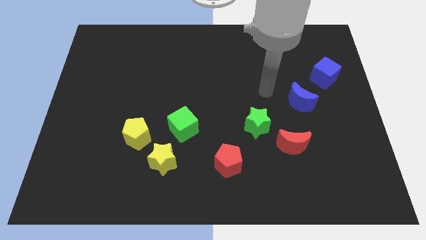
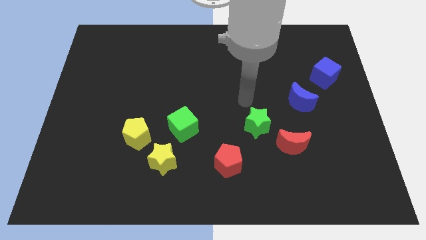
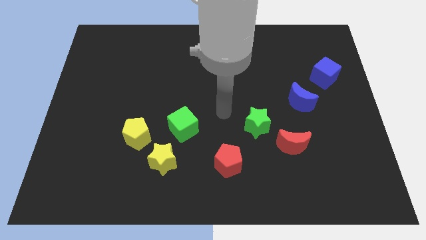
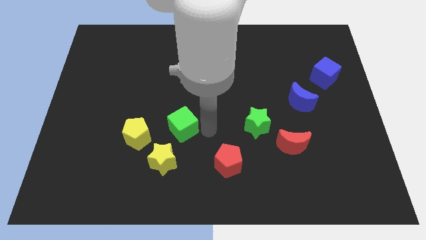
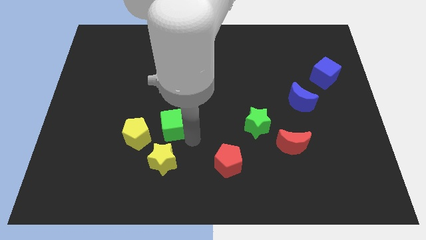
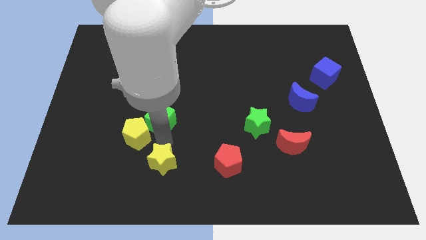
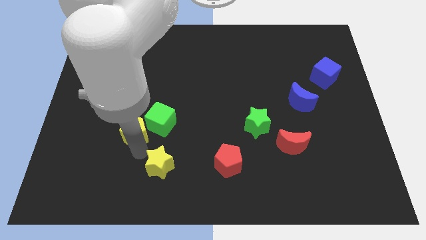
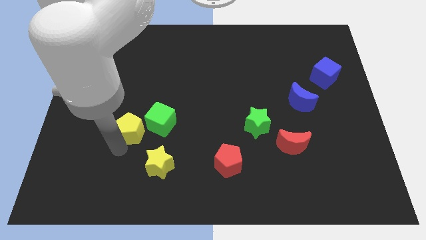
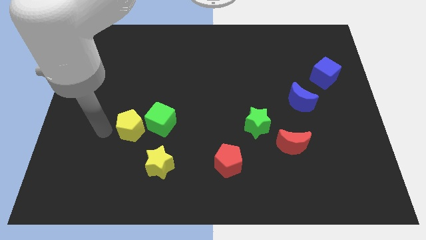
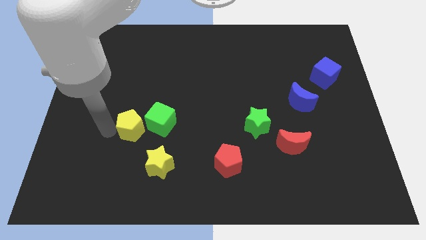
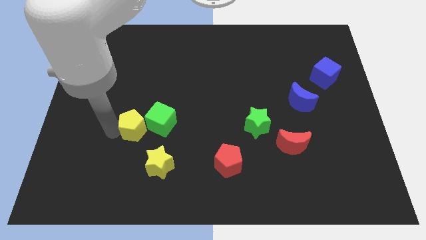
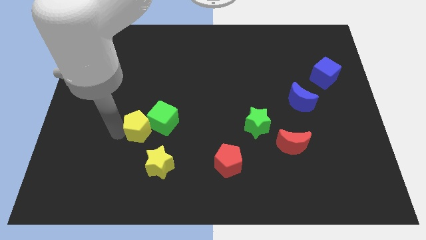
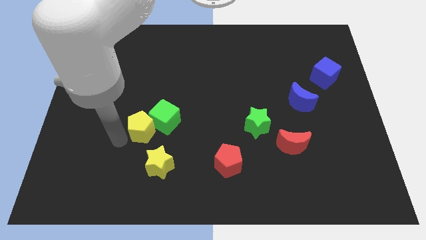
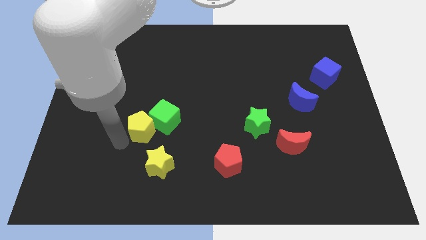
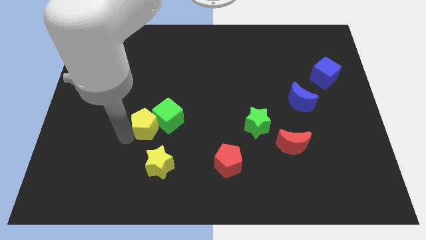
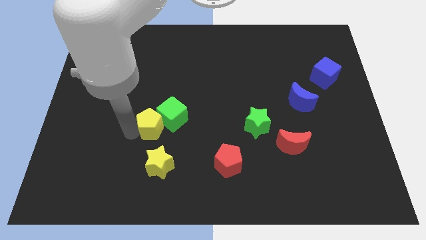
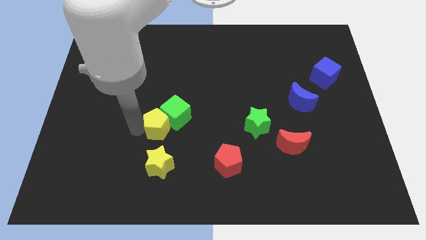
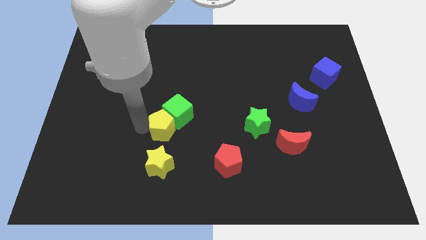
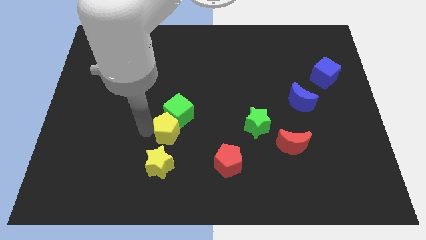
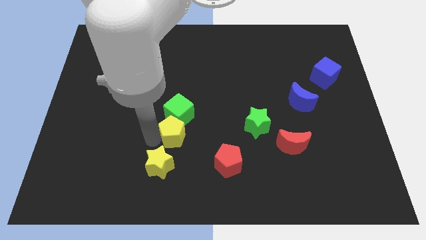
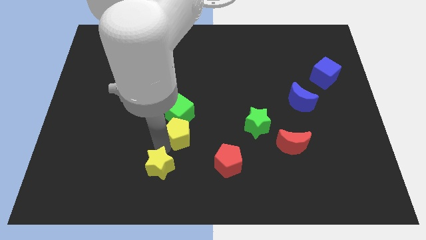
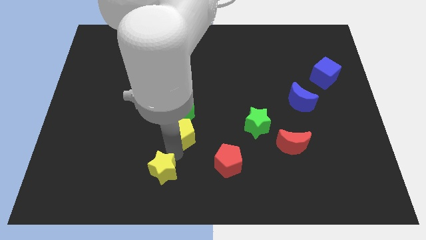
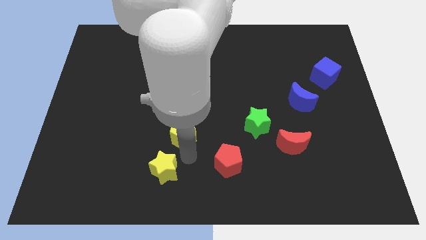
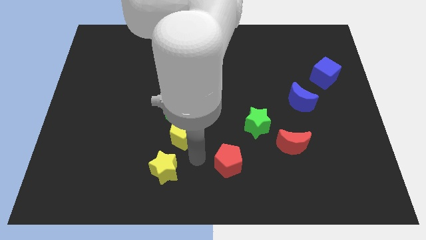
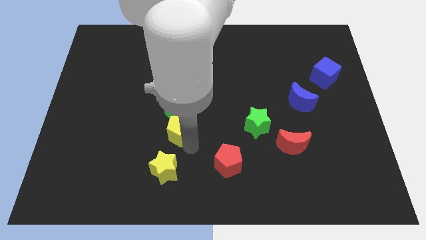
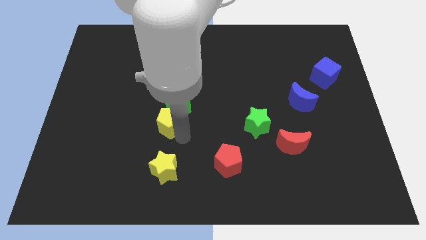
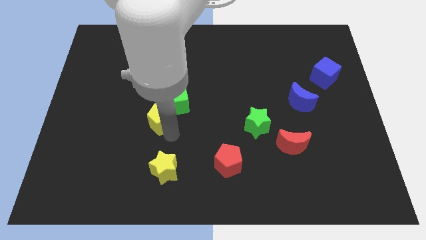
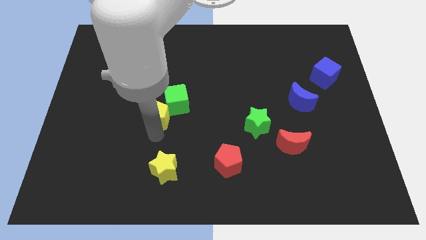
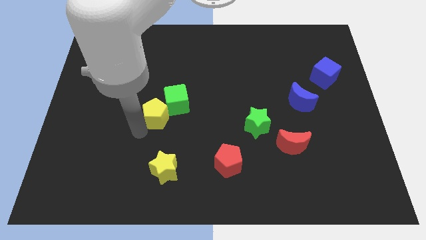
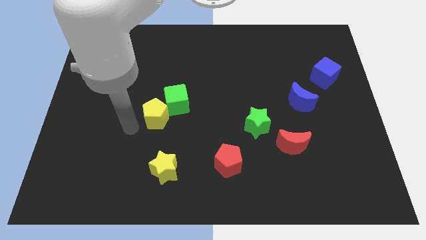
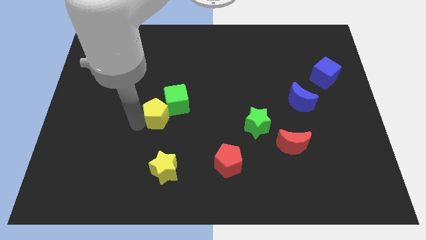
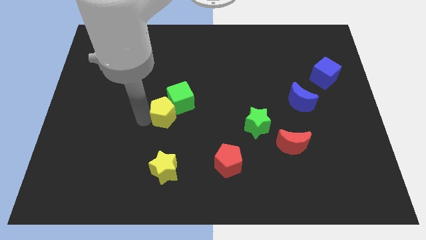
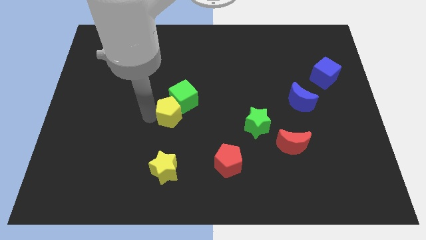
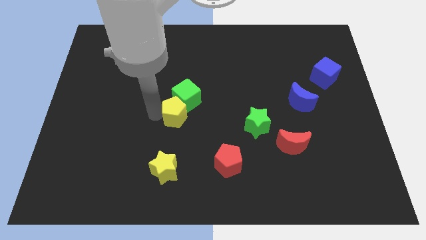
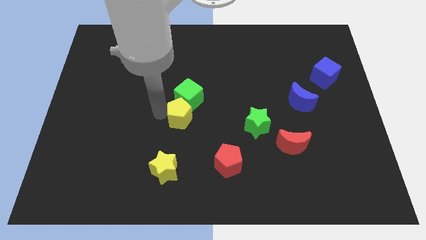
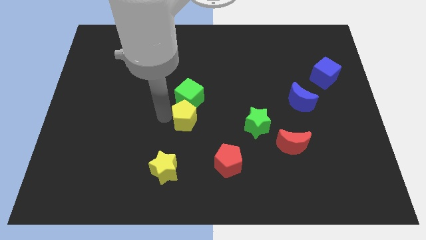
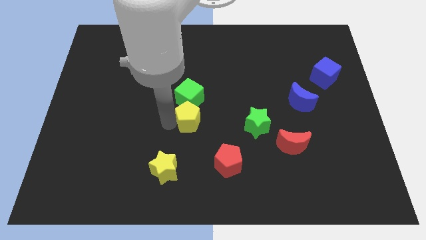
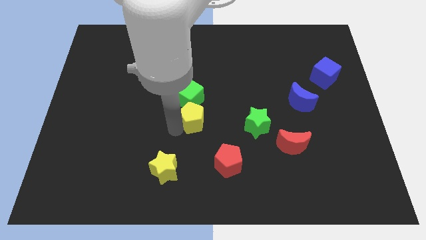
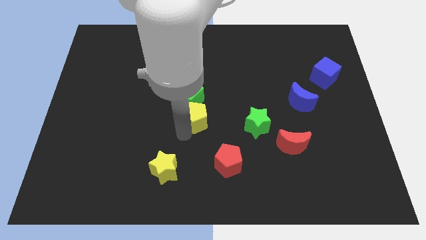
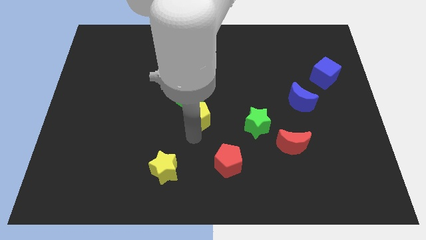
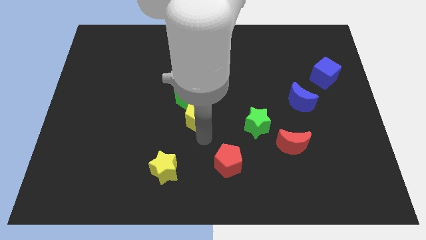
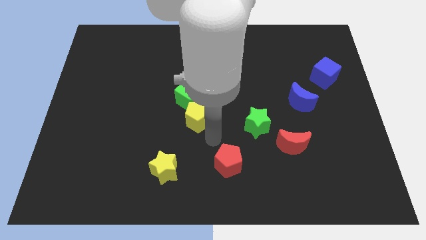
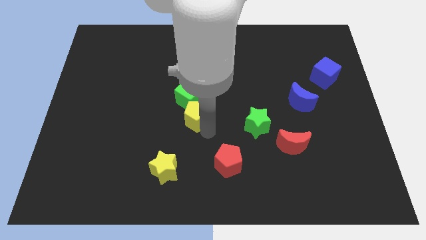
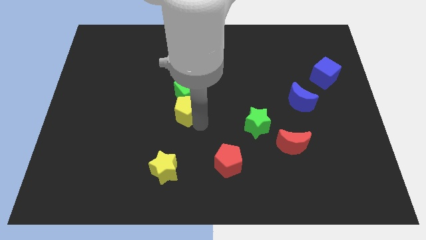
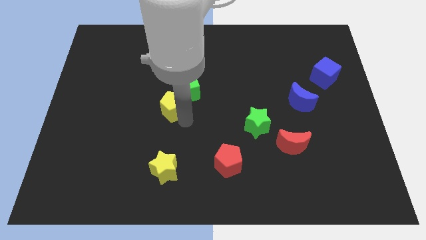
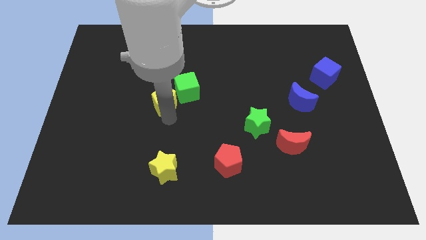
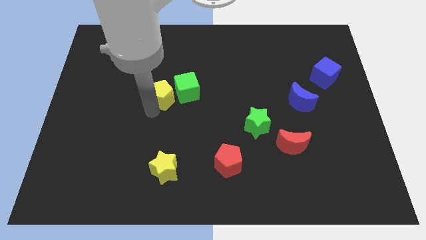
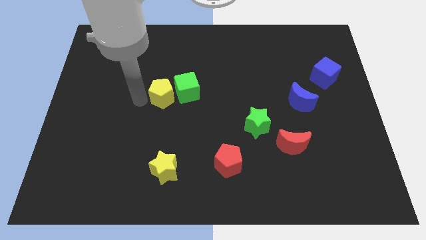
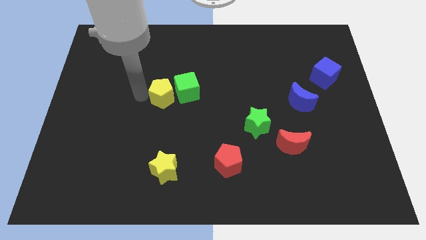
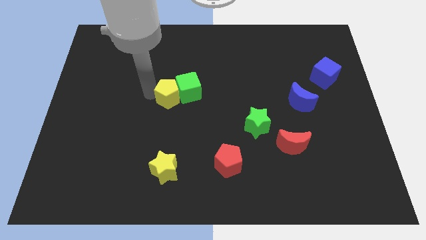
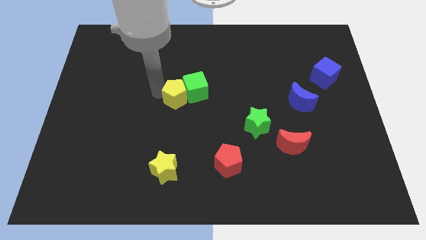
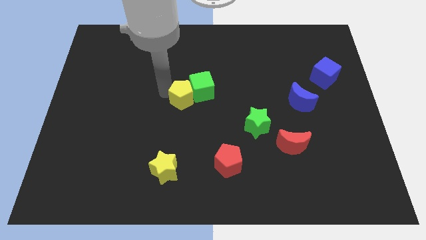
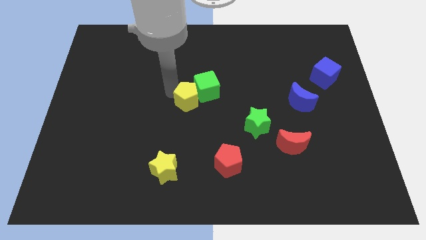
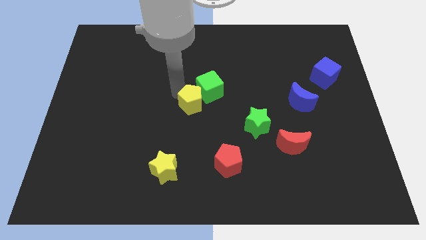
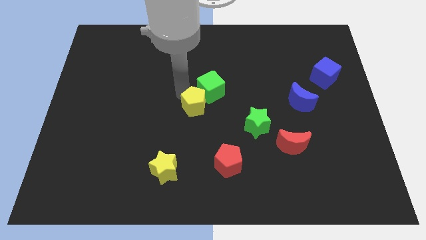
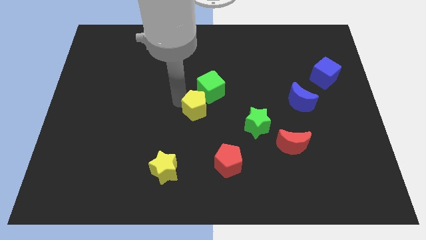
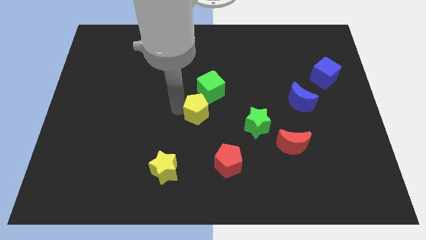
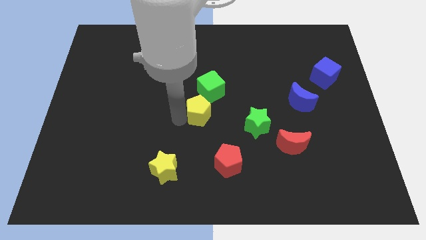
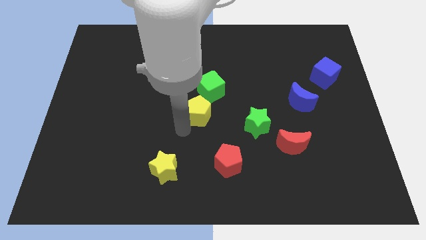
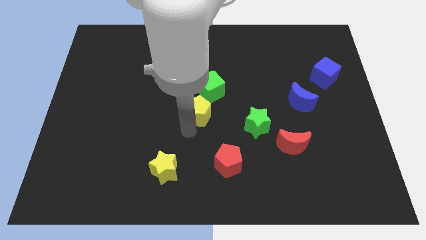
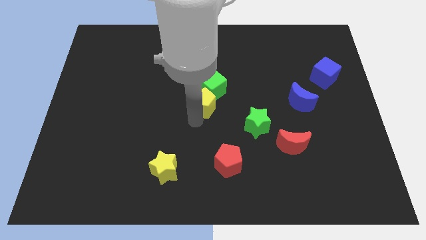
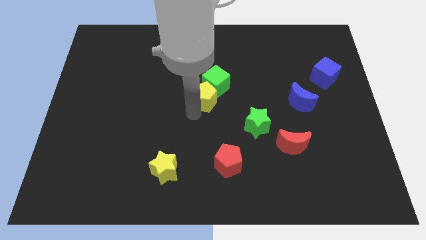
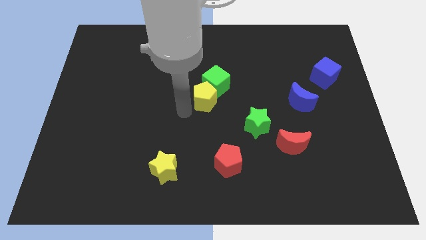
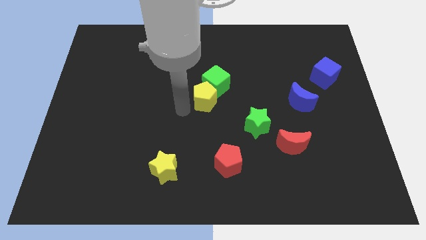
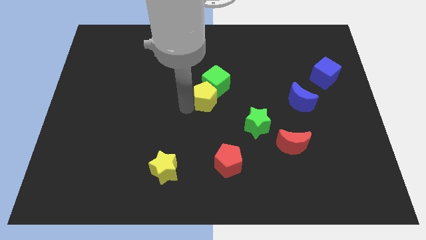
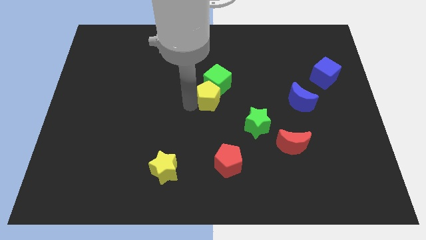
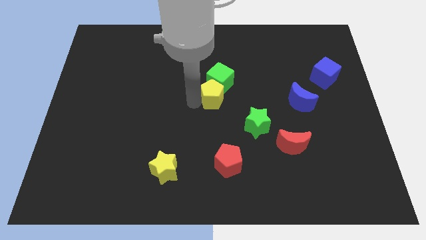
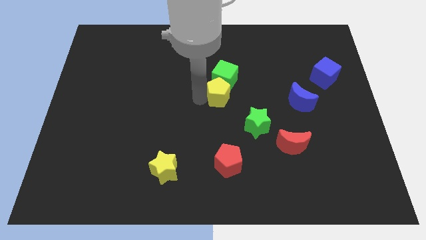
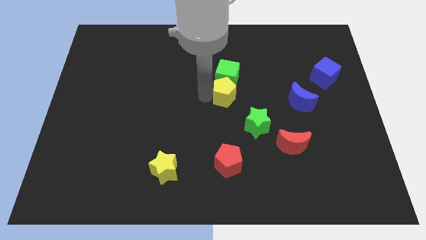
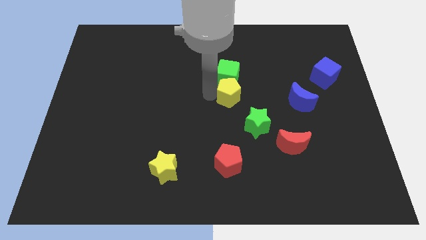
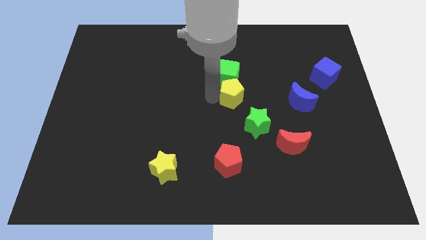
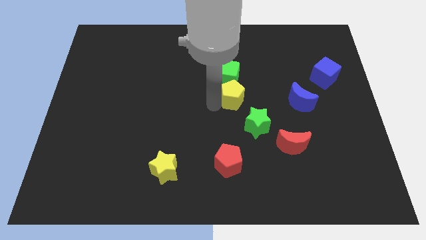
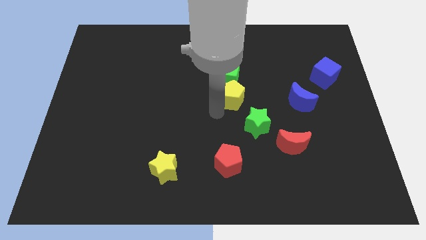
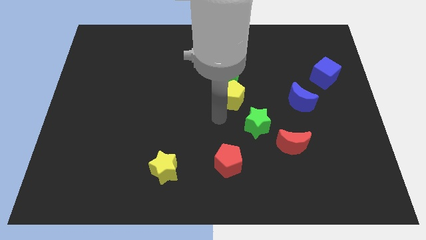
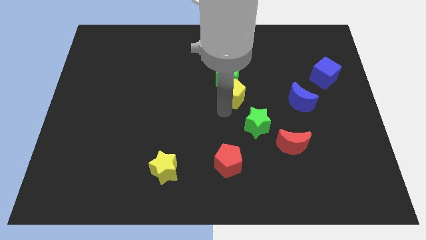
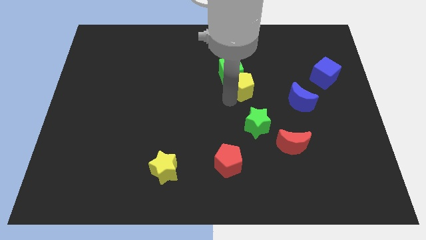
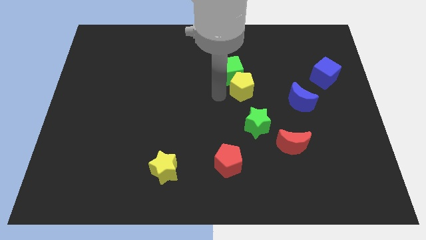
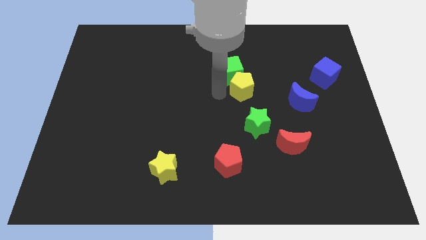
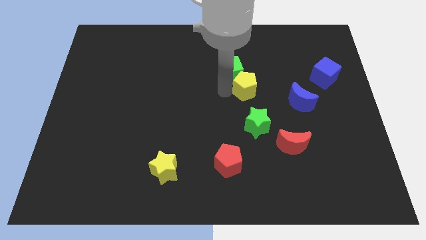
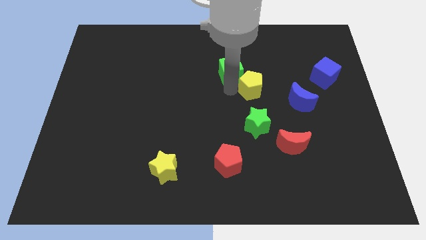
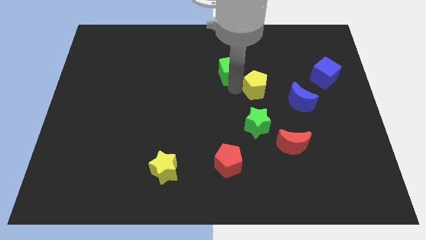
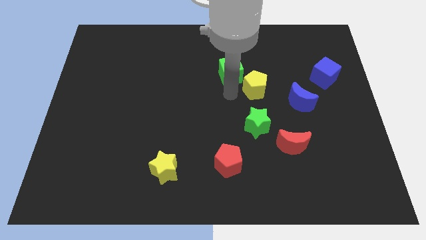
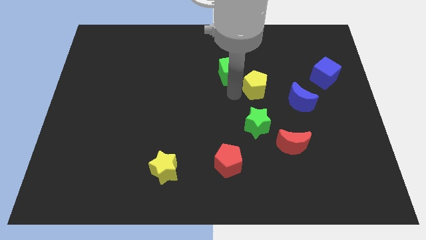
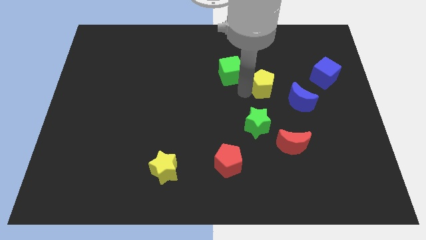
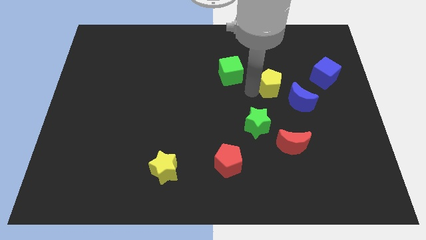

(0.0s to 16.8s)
slide the yellow pentagon left of the blue cube
